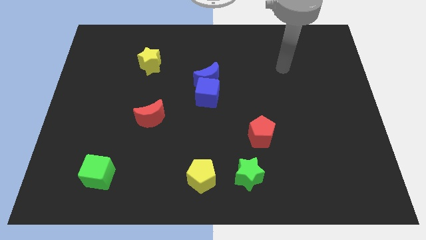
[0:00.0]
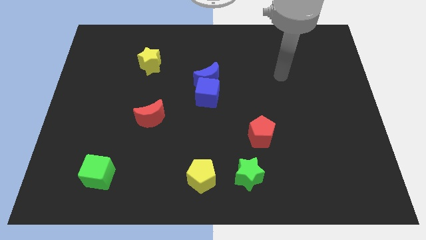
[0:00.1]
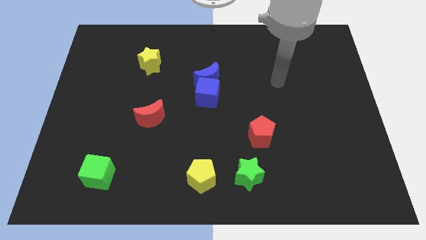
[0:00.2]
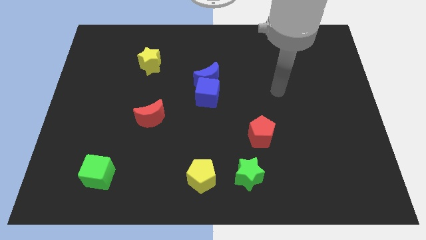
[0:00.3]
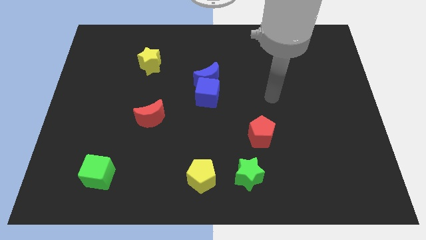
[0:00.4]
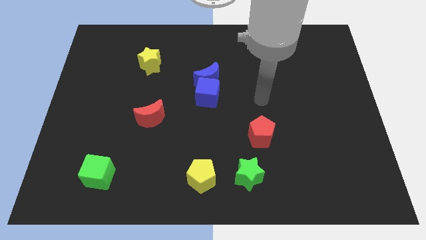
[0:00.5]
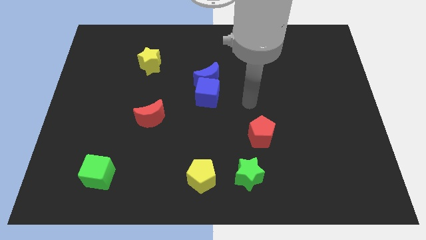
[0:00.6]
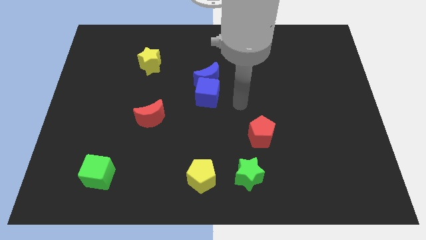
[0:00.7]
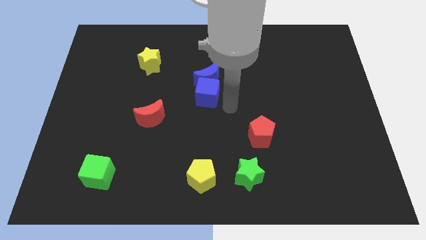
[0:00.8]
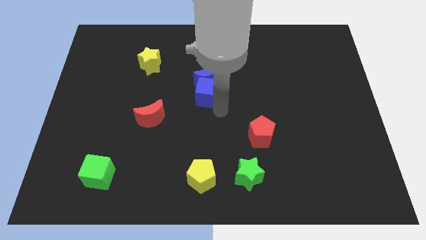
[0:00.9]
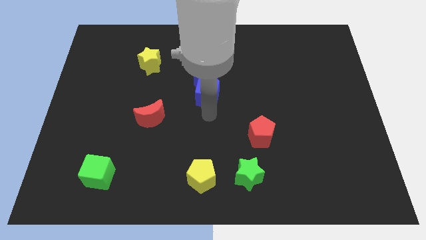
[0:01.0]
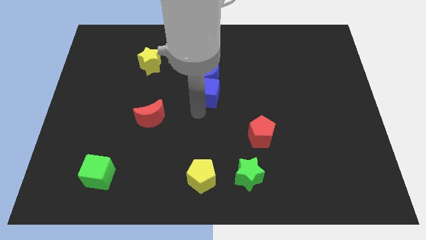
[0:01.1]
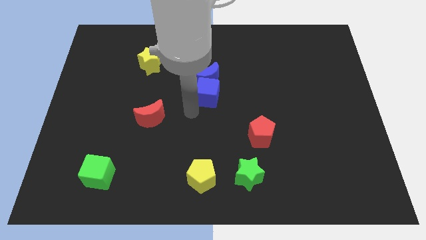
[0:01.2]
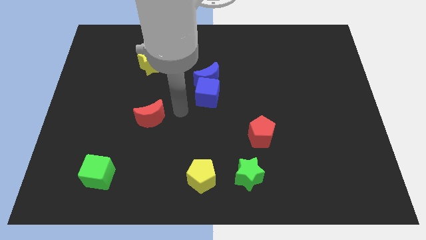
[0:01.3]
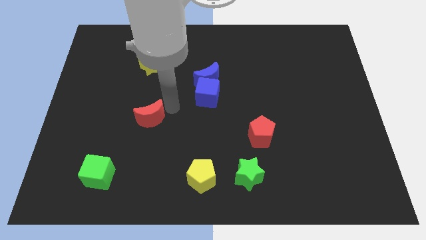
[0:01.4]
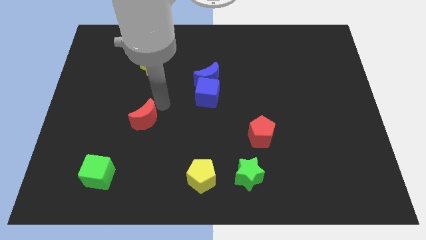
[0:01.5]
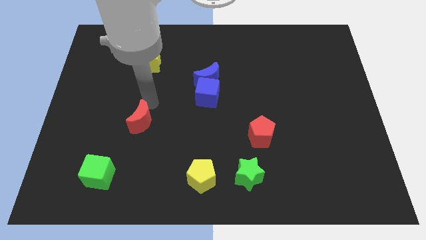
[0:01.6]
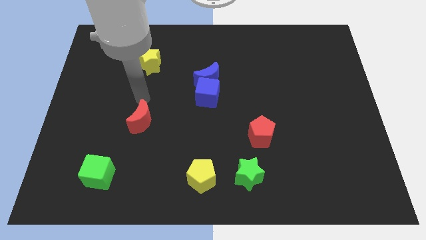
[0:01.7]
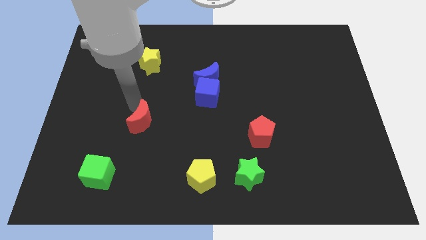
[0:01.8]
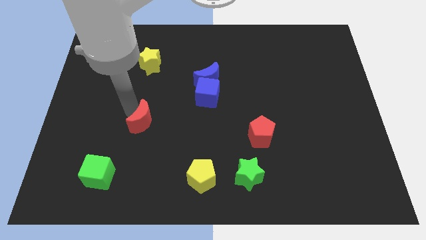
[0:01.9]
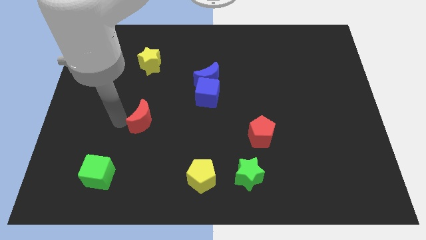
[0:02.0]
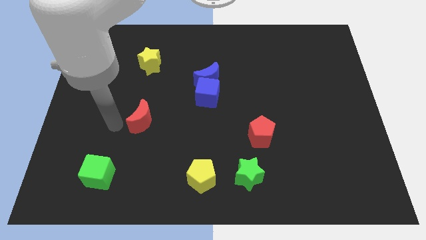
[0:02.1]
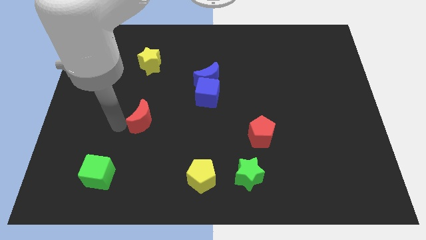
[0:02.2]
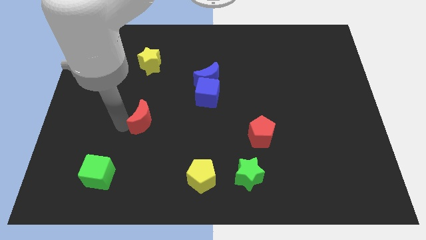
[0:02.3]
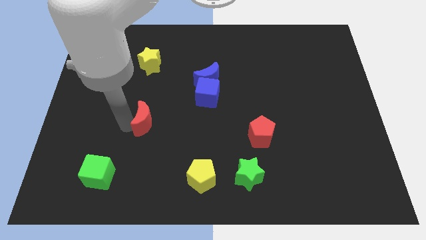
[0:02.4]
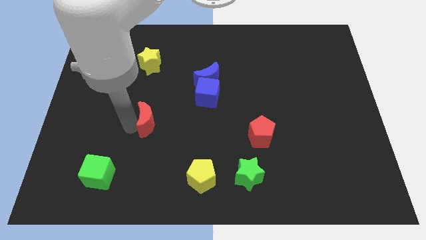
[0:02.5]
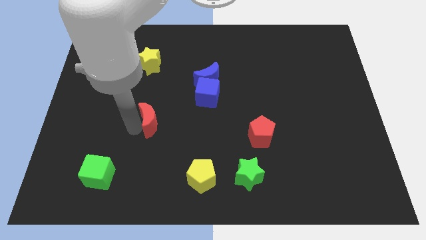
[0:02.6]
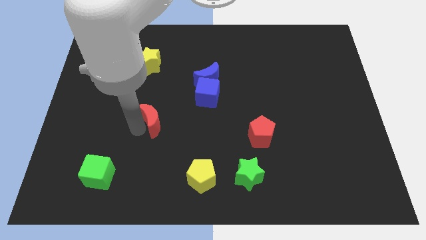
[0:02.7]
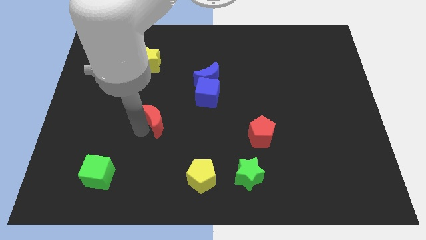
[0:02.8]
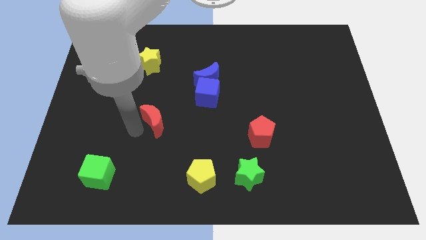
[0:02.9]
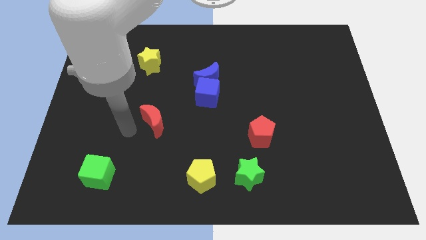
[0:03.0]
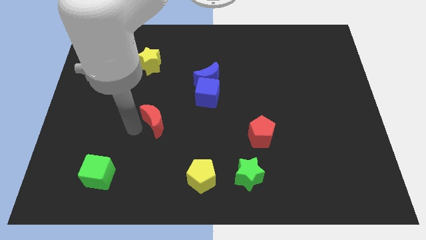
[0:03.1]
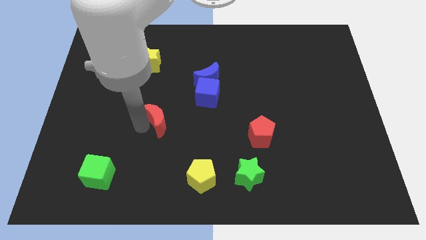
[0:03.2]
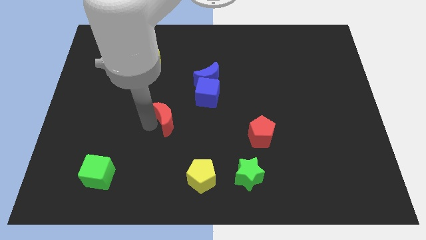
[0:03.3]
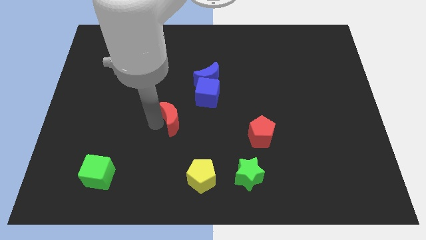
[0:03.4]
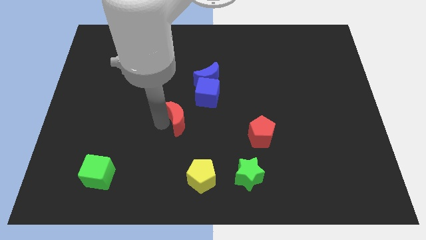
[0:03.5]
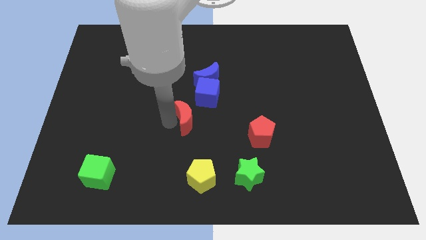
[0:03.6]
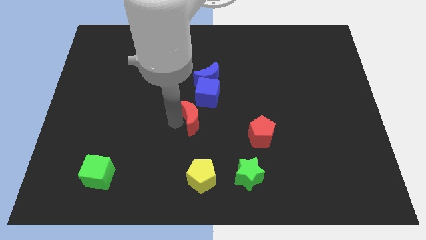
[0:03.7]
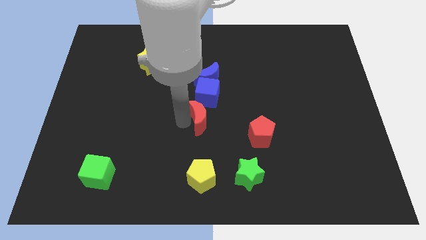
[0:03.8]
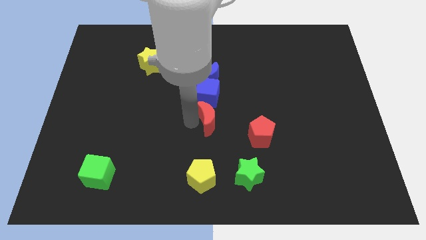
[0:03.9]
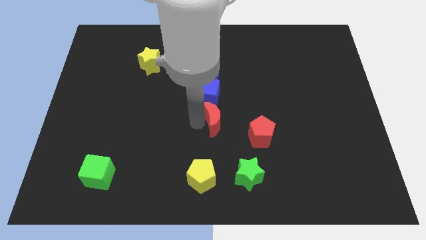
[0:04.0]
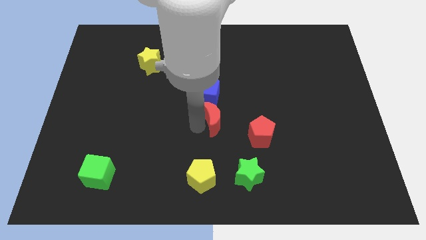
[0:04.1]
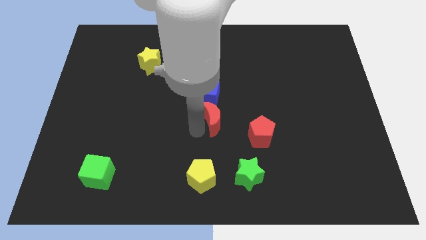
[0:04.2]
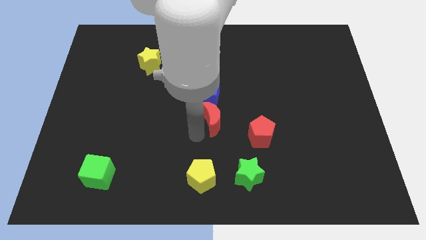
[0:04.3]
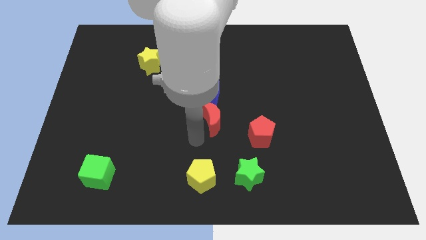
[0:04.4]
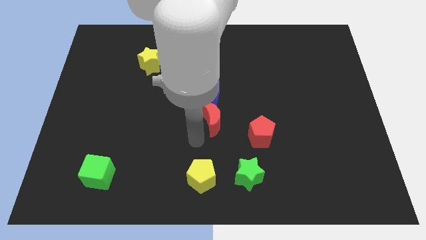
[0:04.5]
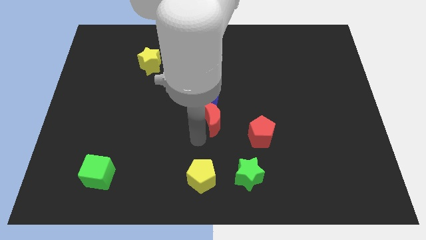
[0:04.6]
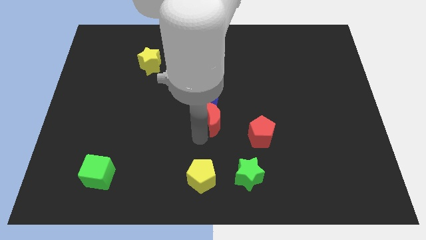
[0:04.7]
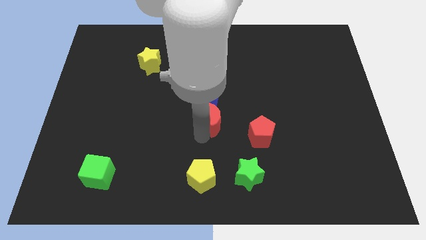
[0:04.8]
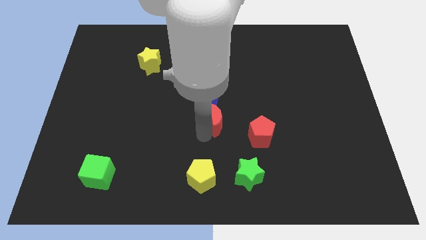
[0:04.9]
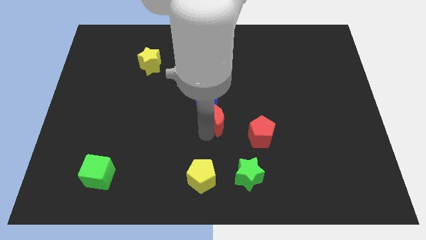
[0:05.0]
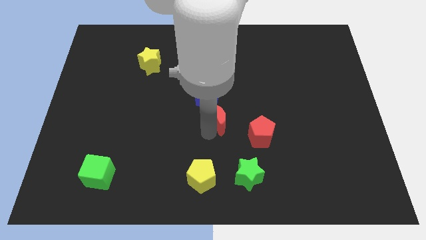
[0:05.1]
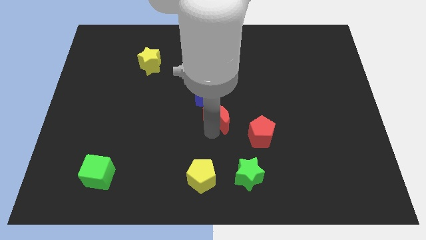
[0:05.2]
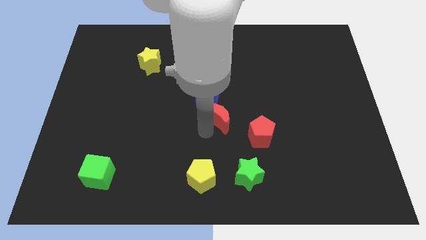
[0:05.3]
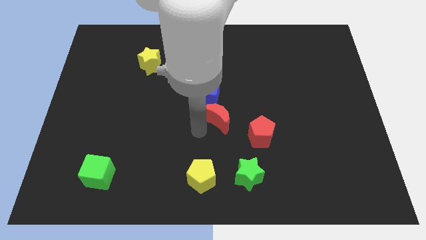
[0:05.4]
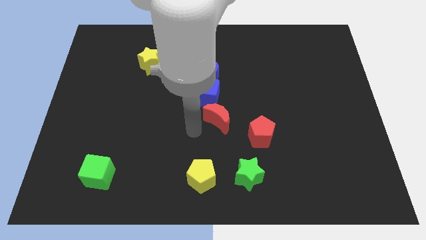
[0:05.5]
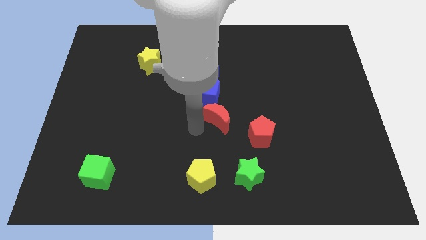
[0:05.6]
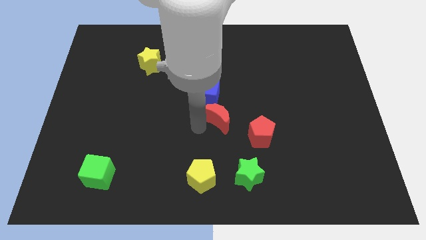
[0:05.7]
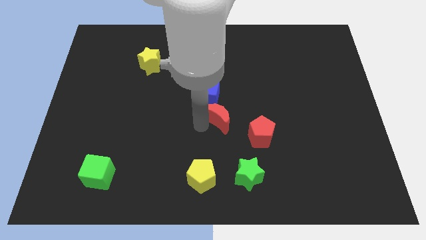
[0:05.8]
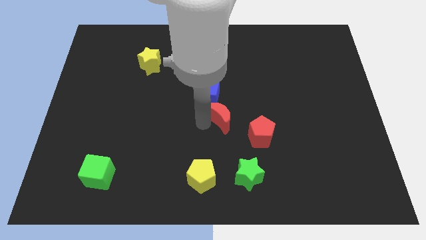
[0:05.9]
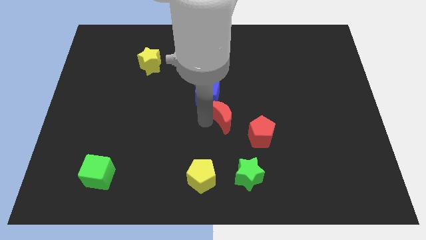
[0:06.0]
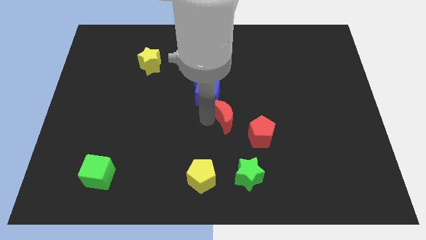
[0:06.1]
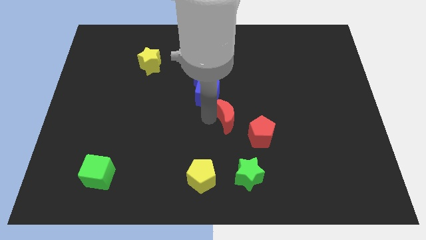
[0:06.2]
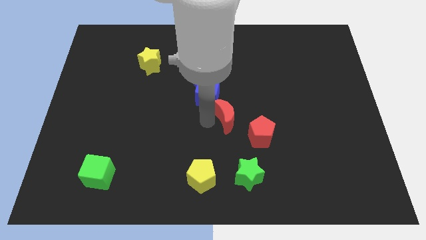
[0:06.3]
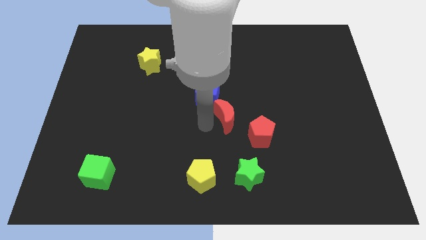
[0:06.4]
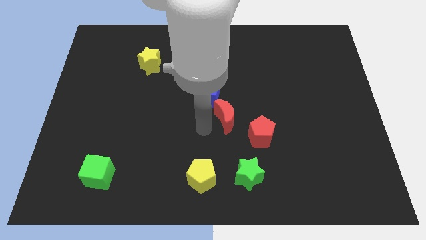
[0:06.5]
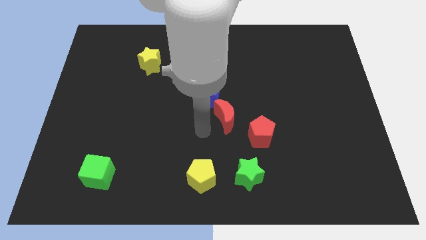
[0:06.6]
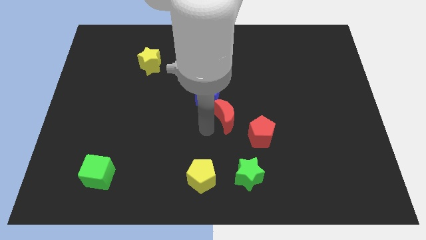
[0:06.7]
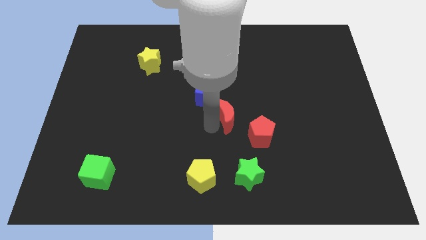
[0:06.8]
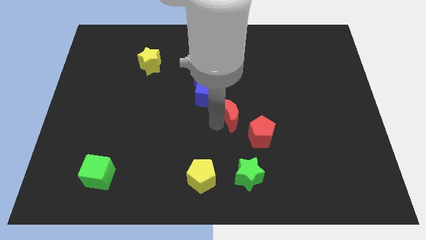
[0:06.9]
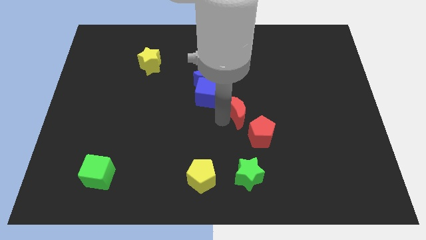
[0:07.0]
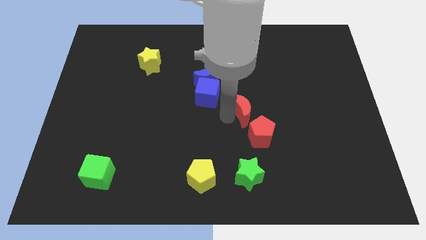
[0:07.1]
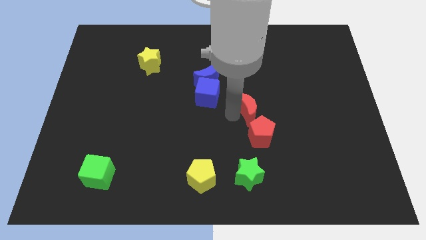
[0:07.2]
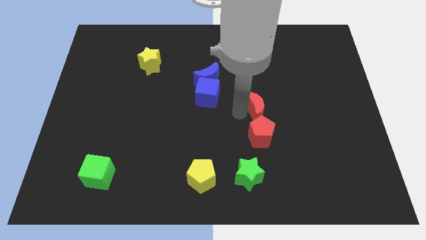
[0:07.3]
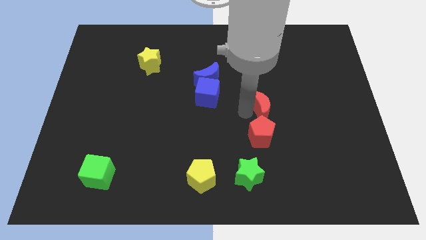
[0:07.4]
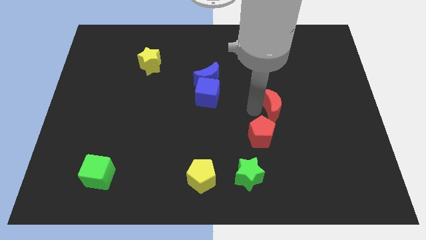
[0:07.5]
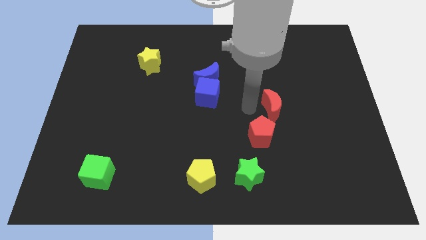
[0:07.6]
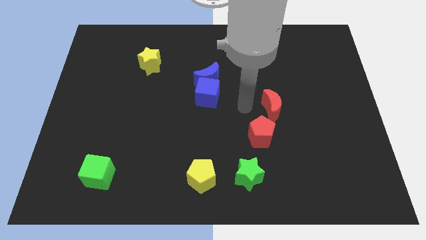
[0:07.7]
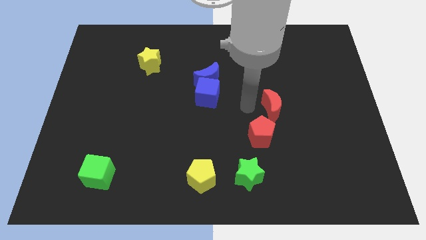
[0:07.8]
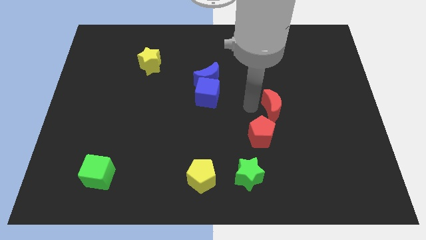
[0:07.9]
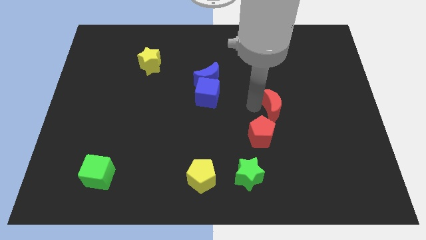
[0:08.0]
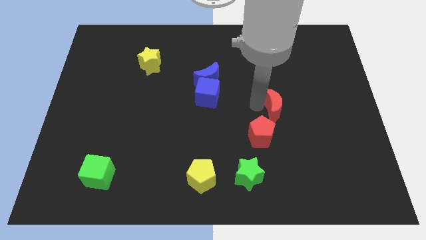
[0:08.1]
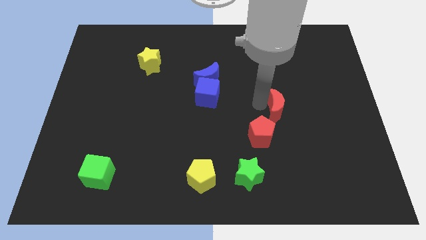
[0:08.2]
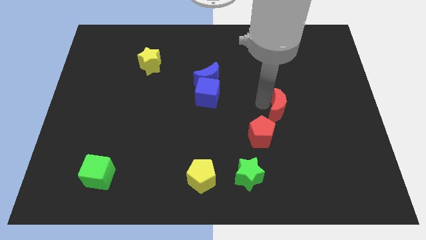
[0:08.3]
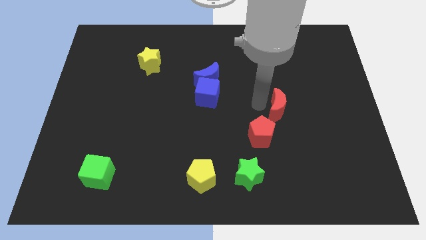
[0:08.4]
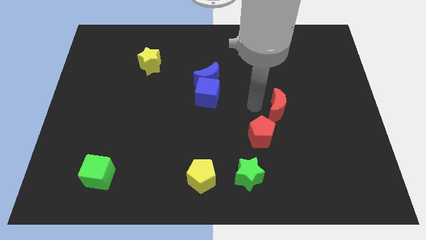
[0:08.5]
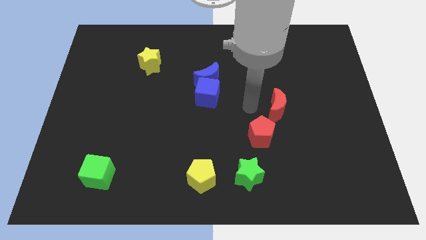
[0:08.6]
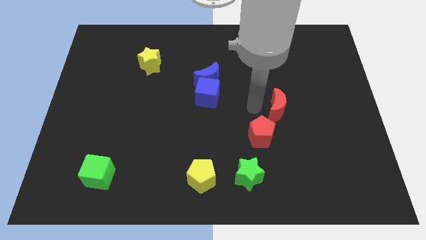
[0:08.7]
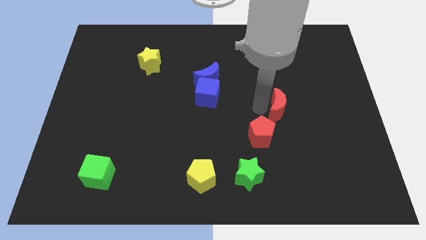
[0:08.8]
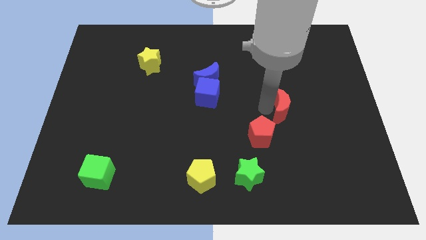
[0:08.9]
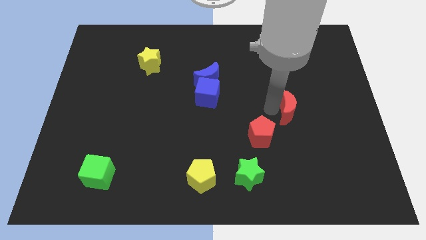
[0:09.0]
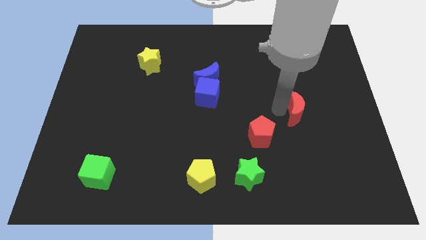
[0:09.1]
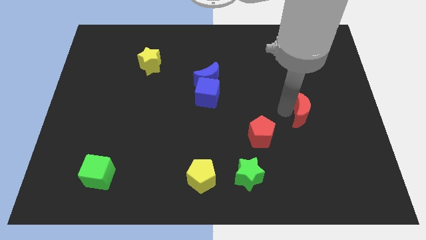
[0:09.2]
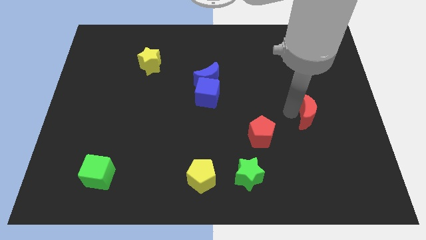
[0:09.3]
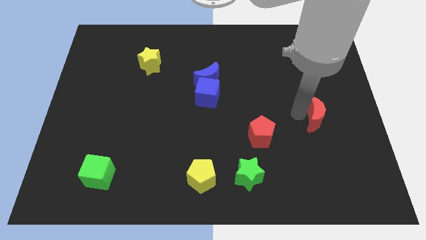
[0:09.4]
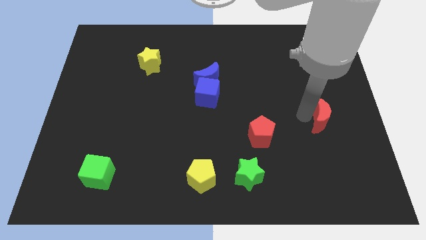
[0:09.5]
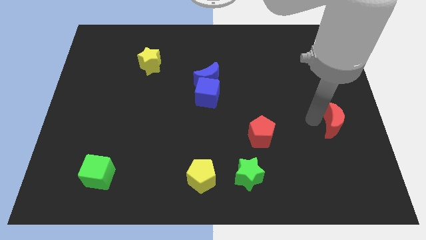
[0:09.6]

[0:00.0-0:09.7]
put the red moon to the right side of the board
